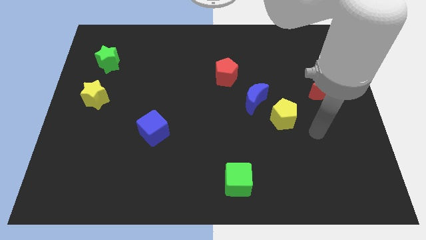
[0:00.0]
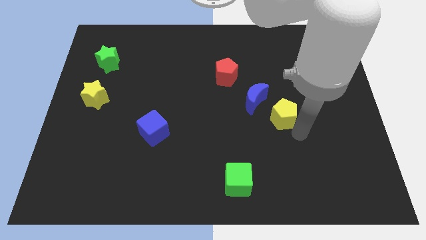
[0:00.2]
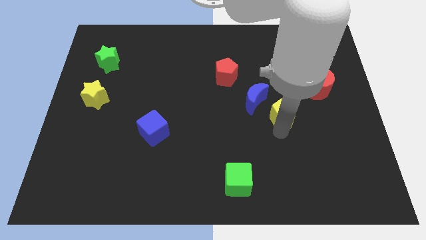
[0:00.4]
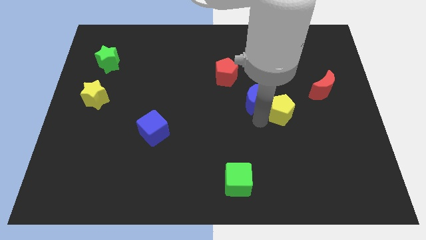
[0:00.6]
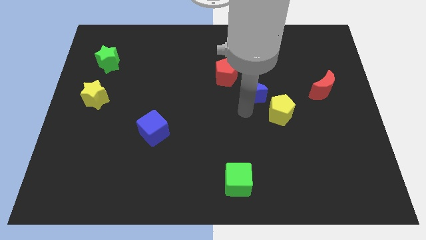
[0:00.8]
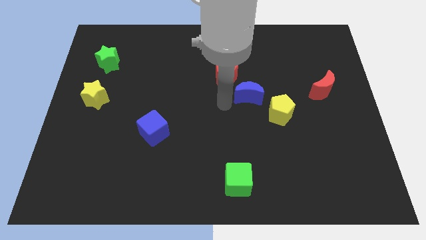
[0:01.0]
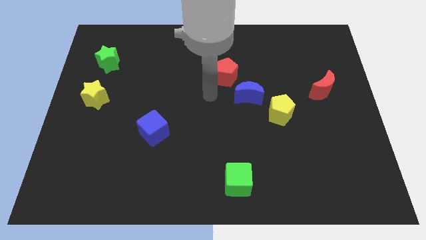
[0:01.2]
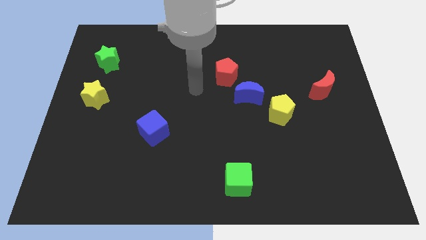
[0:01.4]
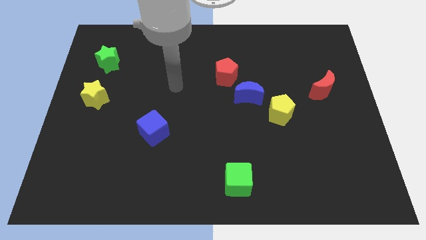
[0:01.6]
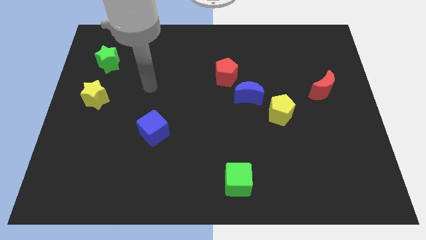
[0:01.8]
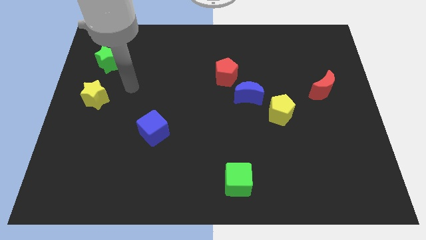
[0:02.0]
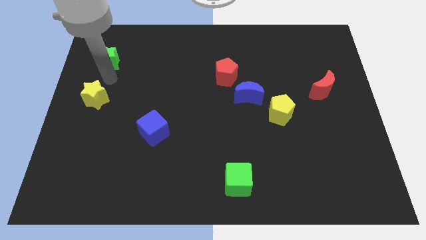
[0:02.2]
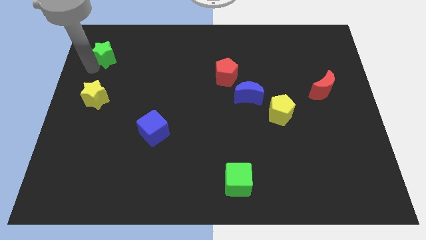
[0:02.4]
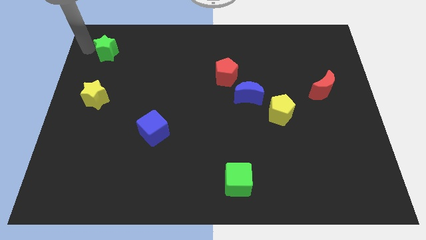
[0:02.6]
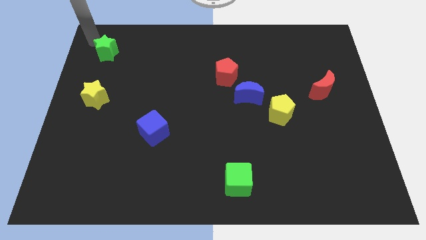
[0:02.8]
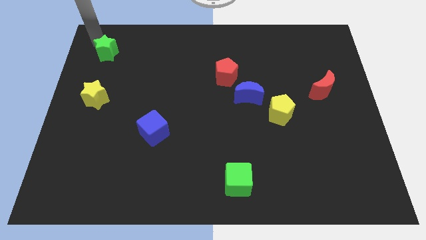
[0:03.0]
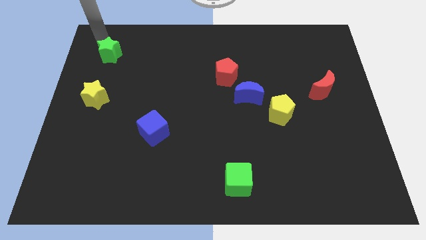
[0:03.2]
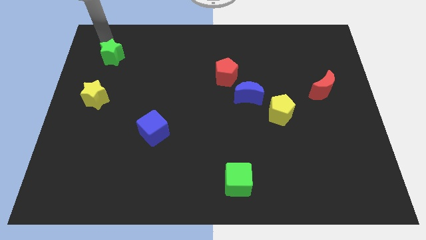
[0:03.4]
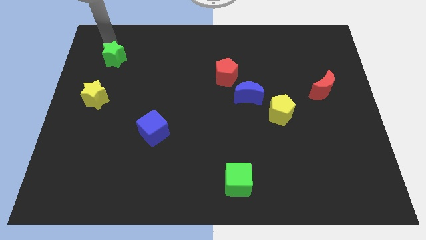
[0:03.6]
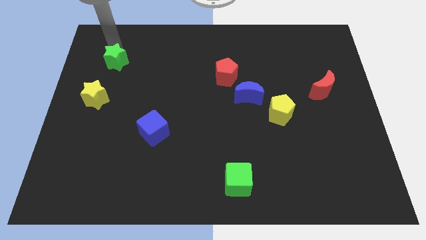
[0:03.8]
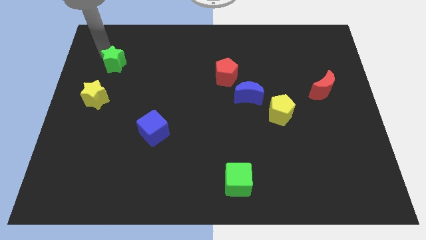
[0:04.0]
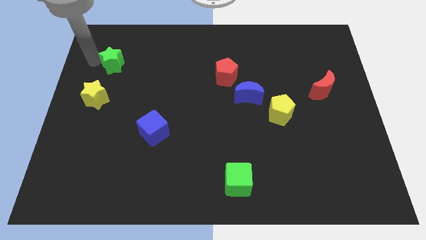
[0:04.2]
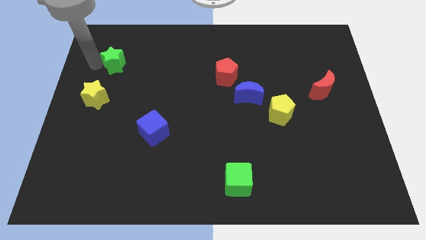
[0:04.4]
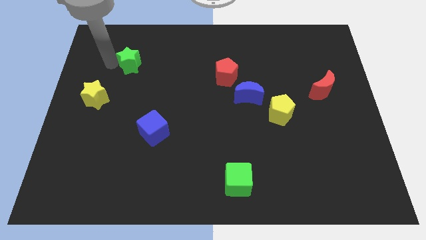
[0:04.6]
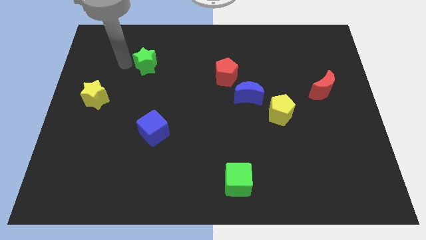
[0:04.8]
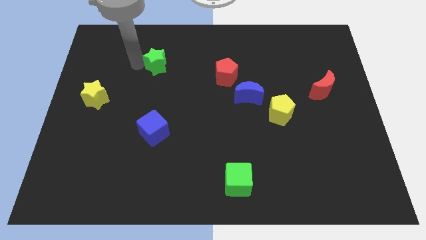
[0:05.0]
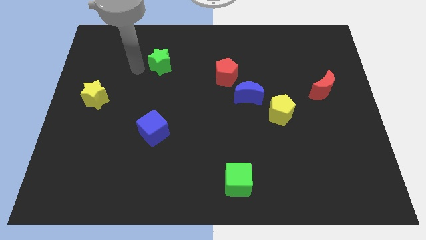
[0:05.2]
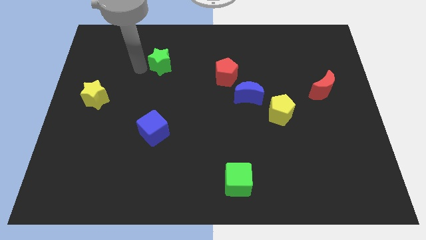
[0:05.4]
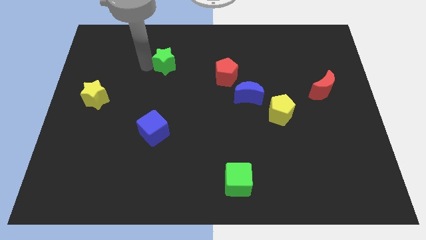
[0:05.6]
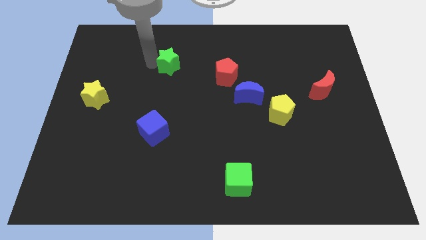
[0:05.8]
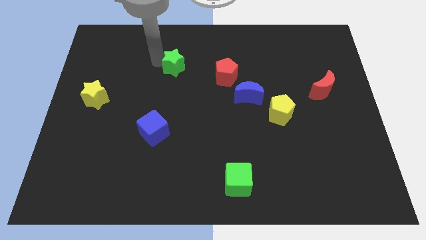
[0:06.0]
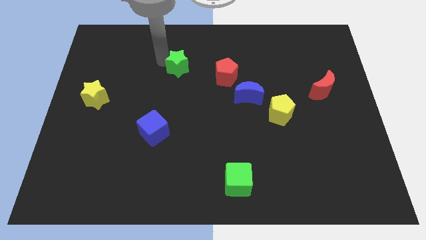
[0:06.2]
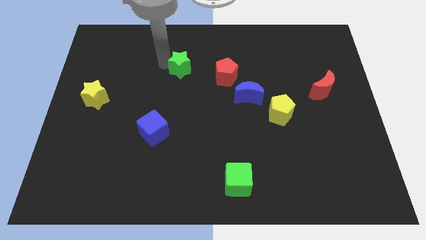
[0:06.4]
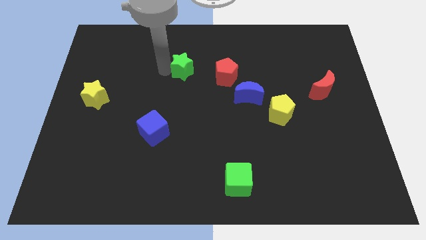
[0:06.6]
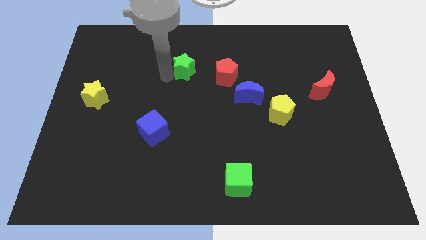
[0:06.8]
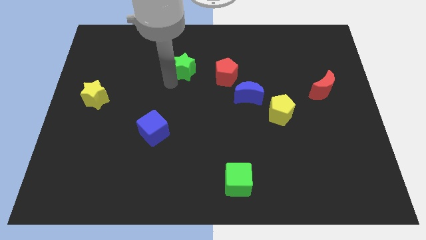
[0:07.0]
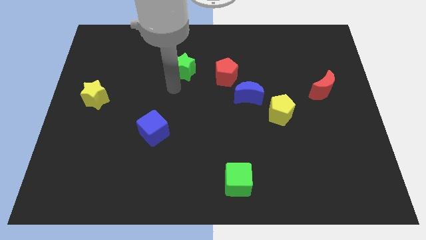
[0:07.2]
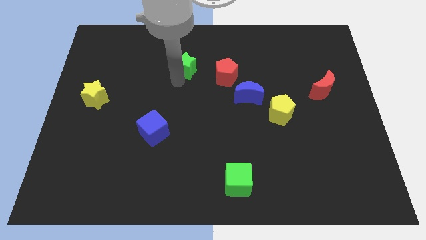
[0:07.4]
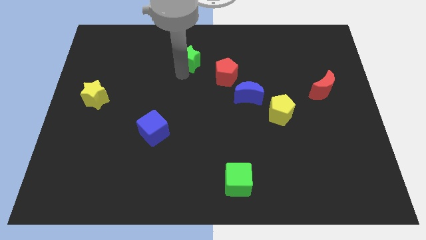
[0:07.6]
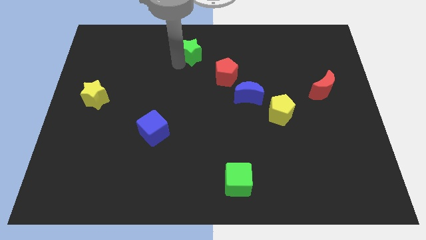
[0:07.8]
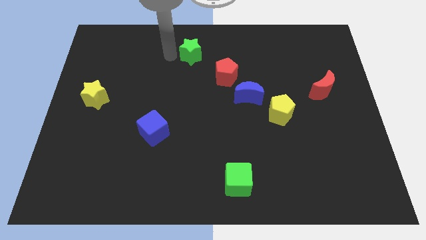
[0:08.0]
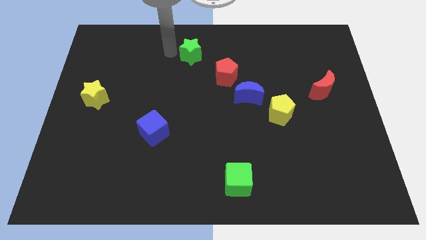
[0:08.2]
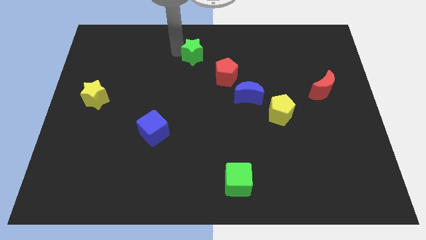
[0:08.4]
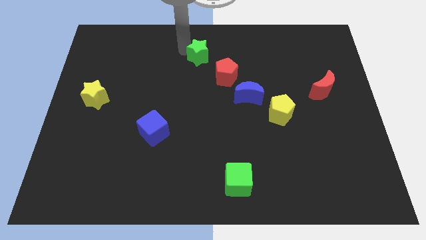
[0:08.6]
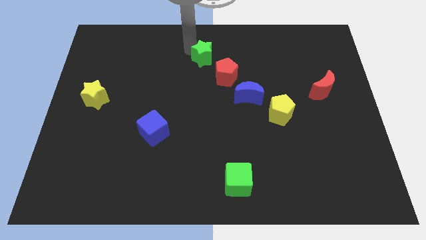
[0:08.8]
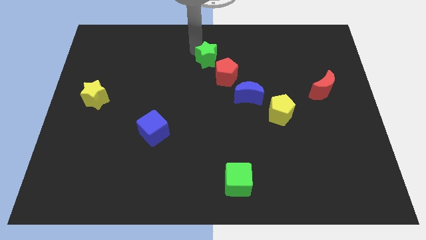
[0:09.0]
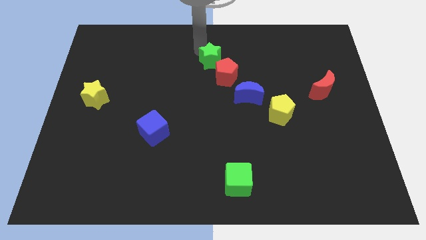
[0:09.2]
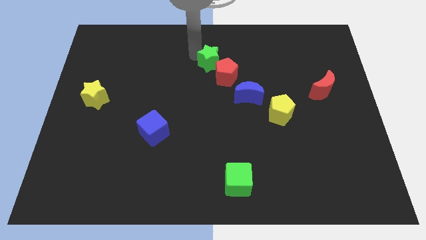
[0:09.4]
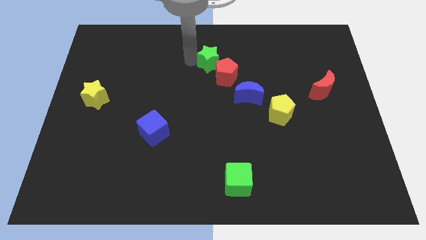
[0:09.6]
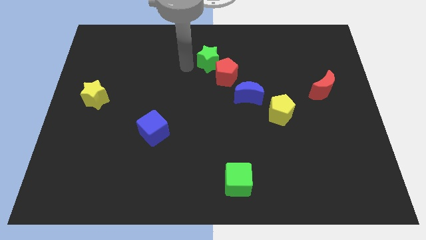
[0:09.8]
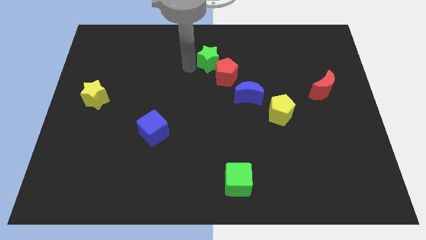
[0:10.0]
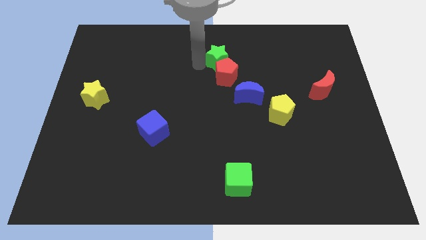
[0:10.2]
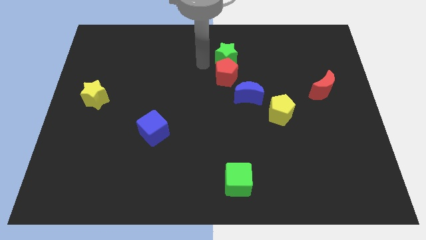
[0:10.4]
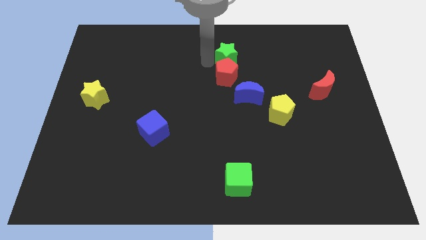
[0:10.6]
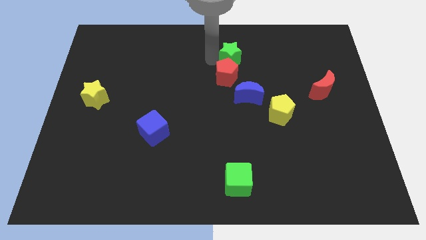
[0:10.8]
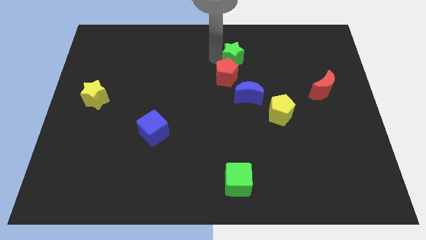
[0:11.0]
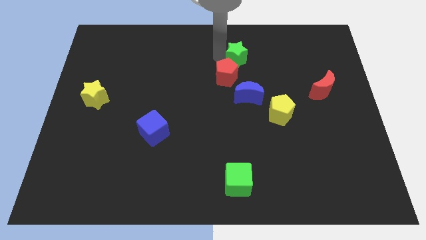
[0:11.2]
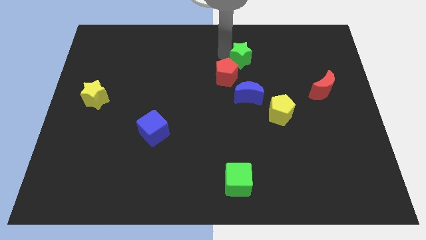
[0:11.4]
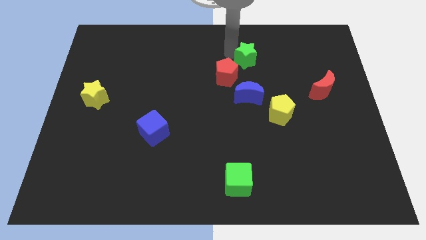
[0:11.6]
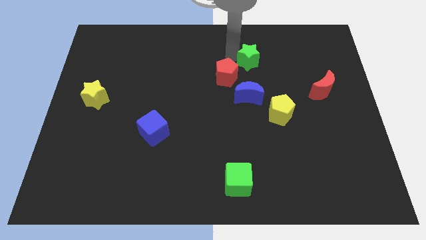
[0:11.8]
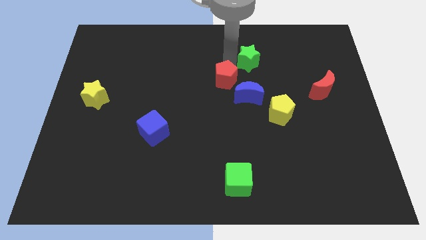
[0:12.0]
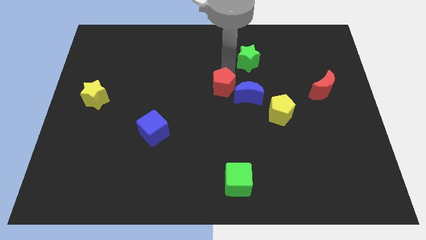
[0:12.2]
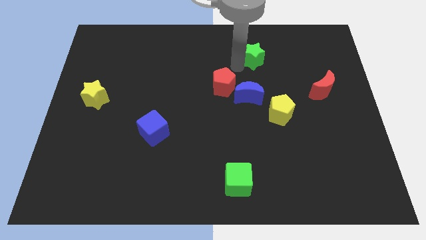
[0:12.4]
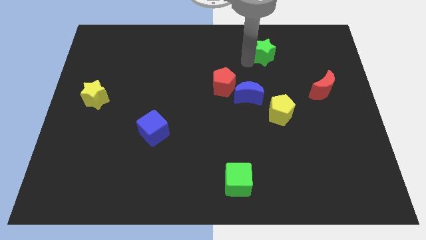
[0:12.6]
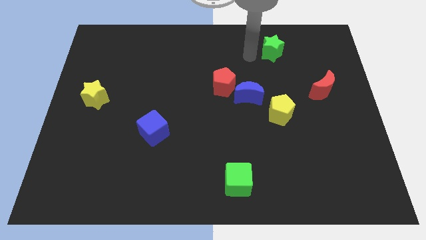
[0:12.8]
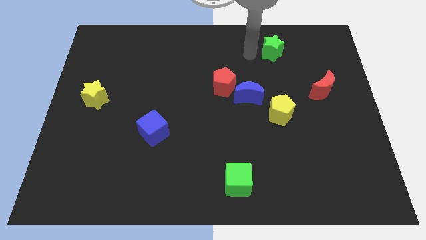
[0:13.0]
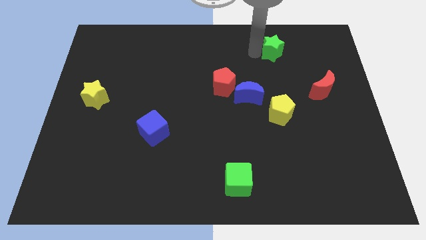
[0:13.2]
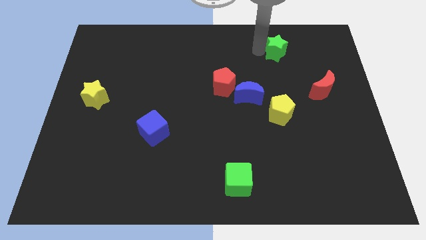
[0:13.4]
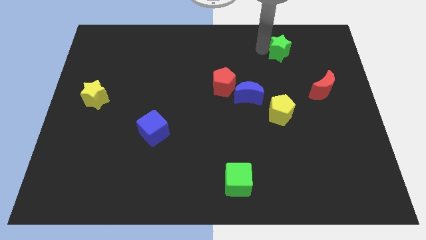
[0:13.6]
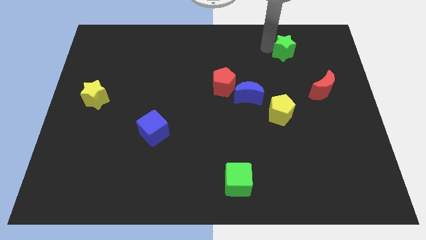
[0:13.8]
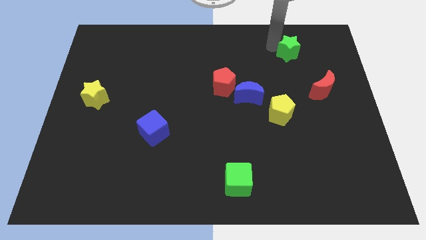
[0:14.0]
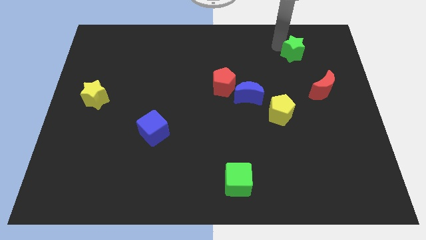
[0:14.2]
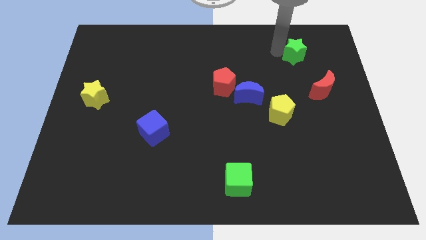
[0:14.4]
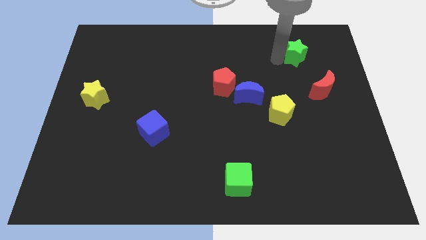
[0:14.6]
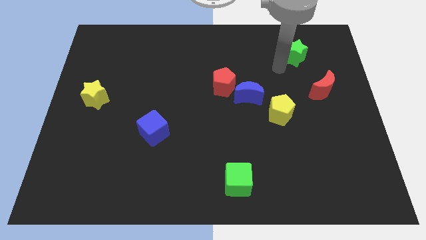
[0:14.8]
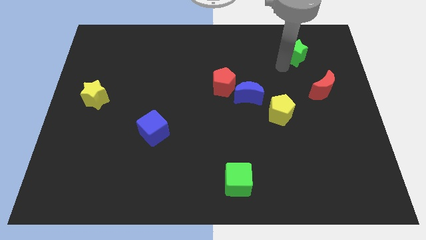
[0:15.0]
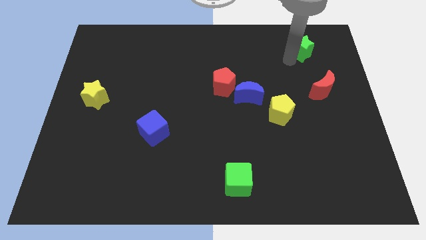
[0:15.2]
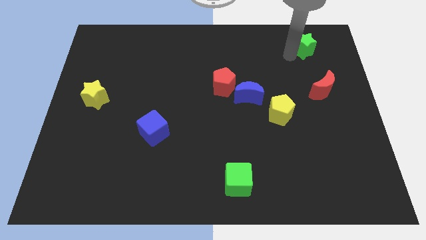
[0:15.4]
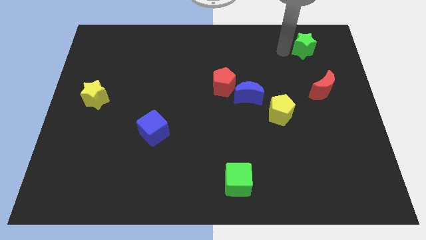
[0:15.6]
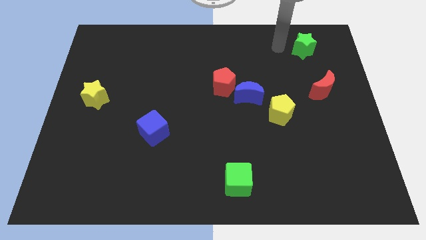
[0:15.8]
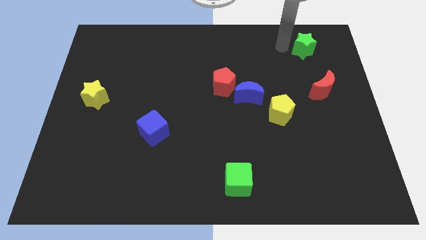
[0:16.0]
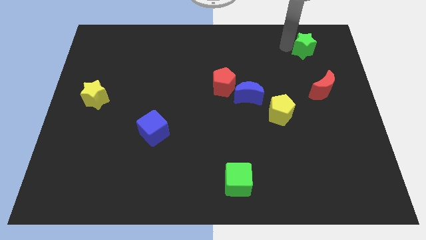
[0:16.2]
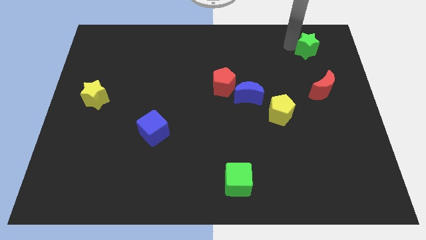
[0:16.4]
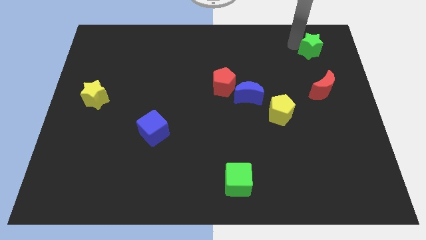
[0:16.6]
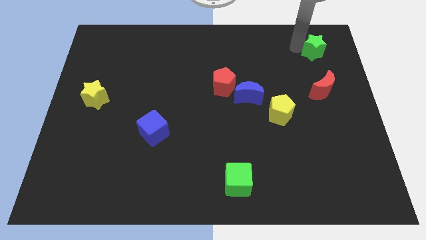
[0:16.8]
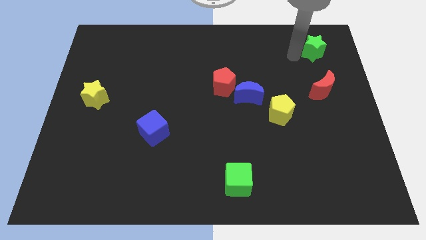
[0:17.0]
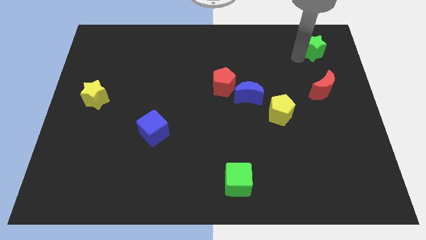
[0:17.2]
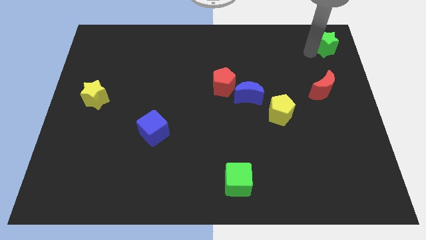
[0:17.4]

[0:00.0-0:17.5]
put the green star to the top right of the board
